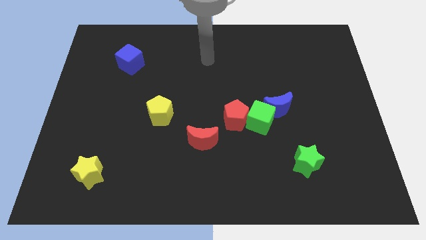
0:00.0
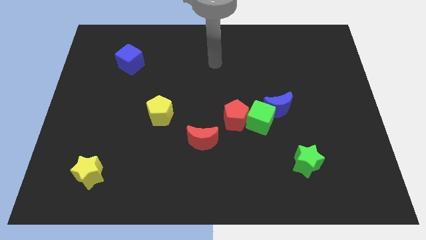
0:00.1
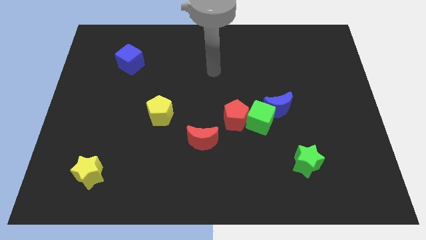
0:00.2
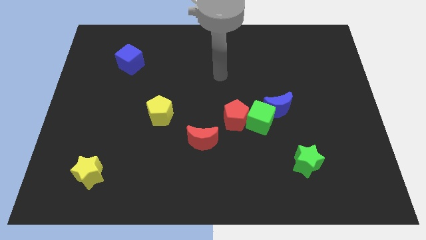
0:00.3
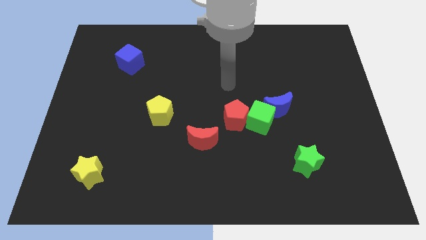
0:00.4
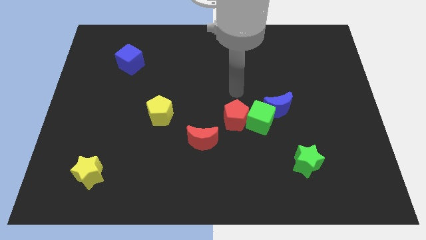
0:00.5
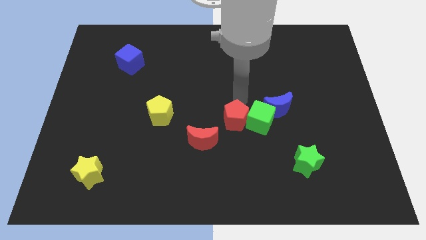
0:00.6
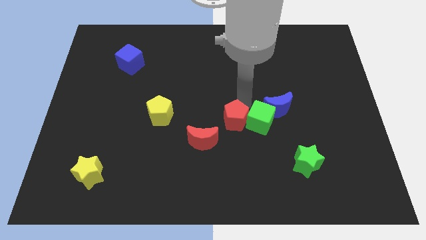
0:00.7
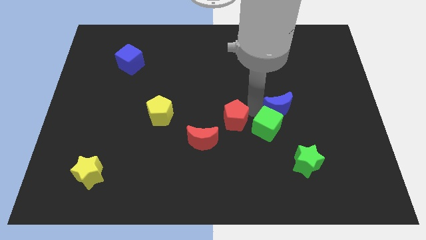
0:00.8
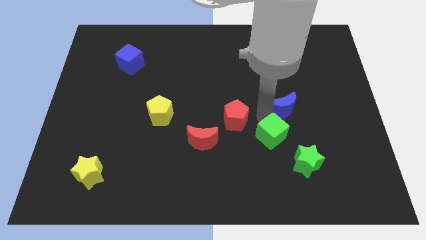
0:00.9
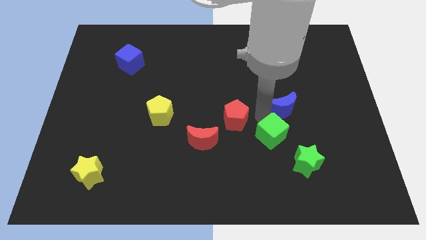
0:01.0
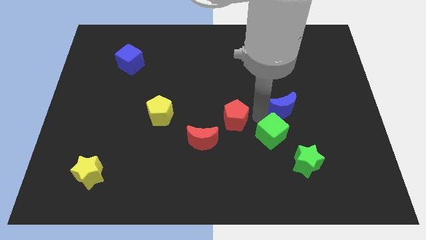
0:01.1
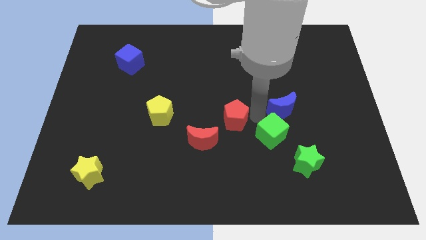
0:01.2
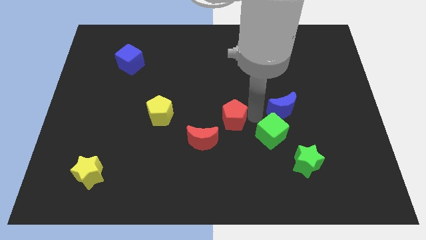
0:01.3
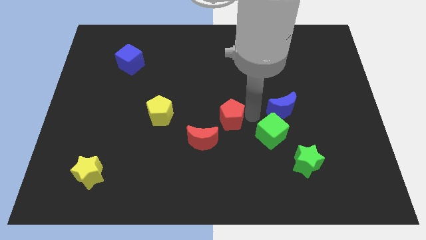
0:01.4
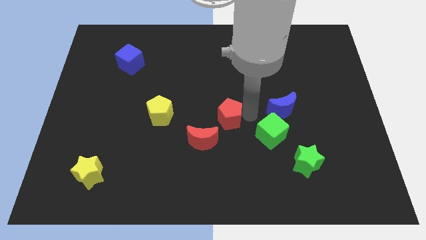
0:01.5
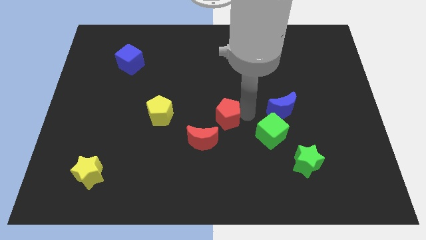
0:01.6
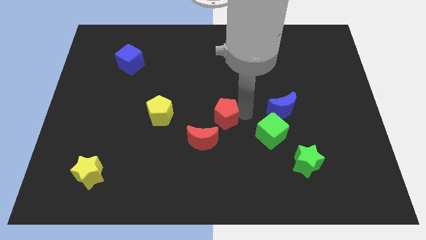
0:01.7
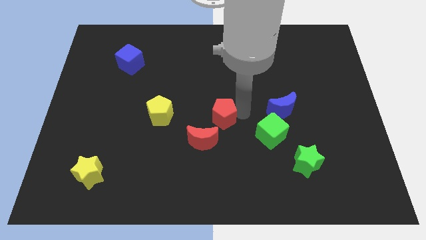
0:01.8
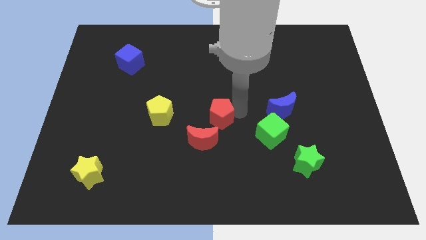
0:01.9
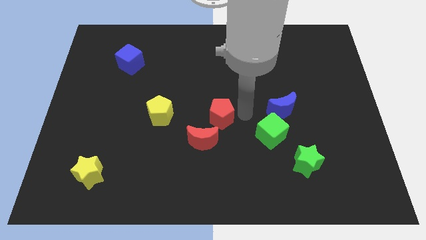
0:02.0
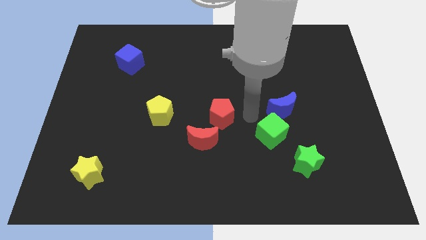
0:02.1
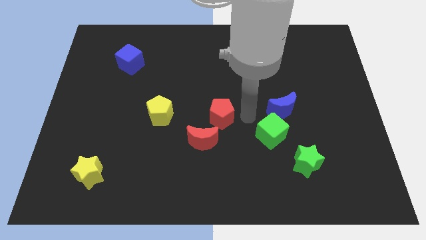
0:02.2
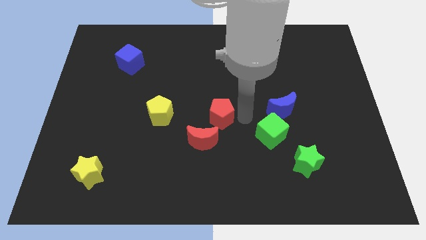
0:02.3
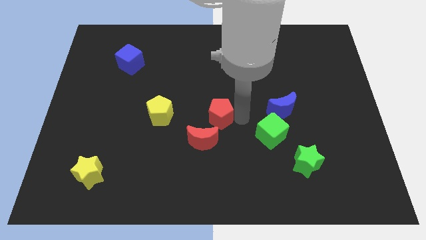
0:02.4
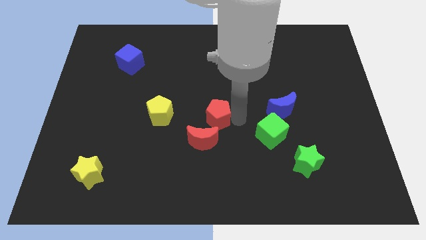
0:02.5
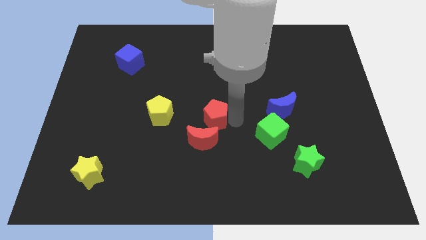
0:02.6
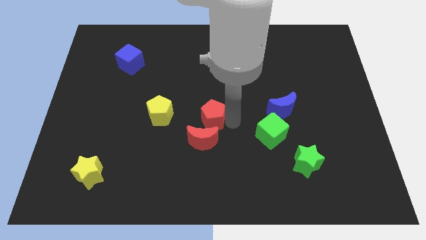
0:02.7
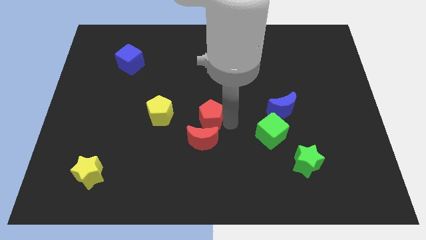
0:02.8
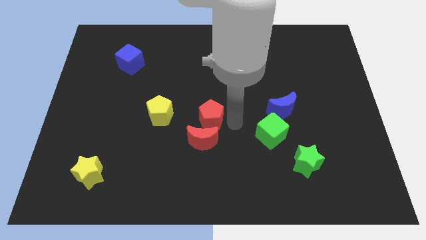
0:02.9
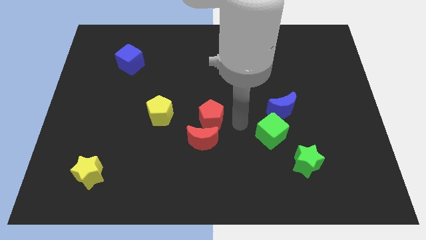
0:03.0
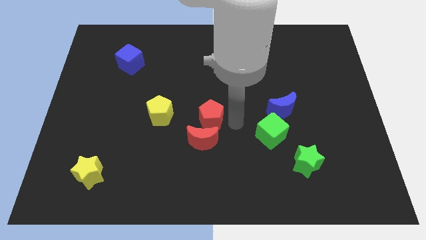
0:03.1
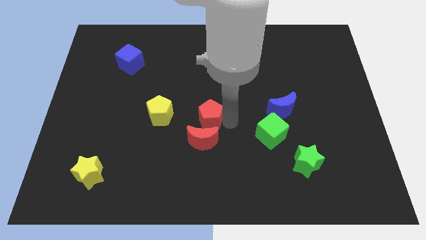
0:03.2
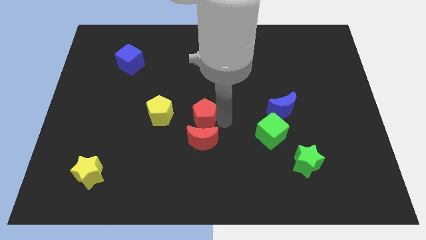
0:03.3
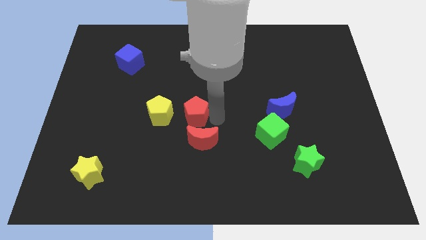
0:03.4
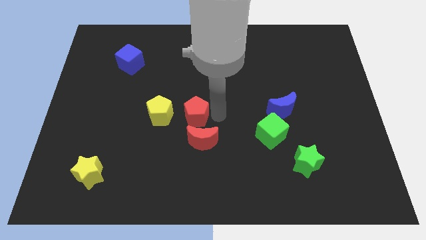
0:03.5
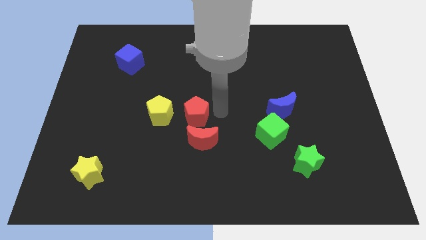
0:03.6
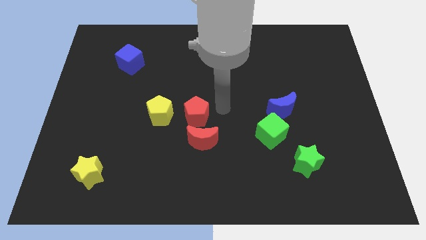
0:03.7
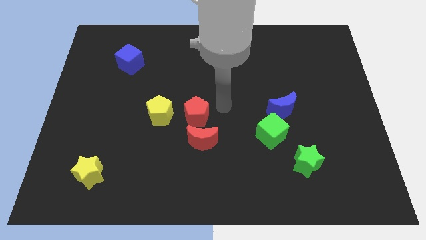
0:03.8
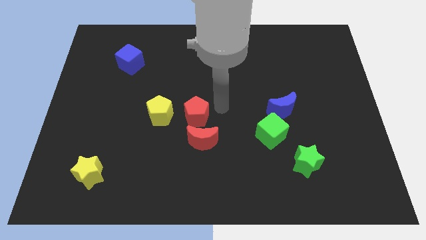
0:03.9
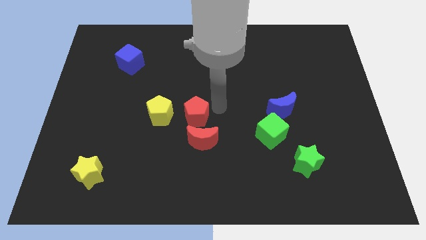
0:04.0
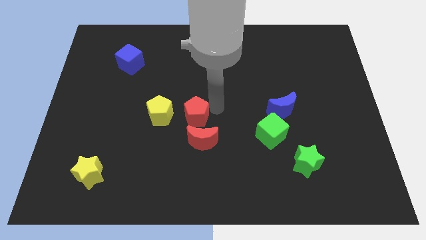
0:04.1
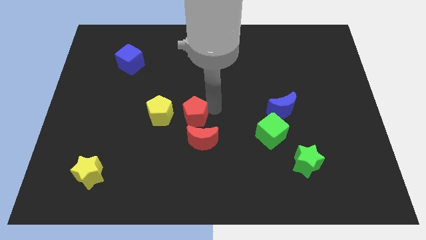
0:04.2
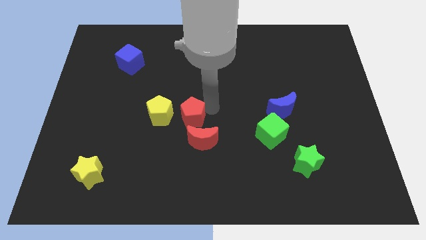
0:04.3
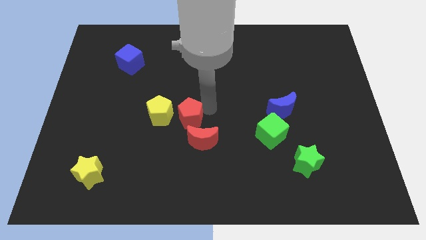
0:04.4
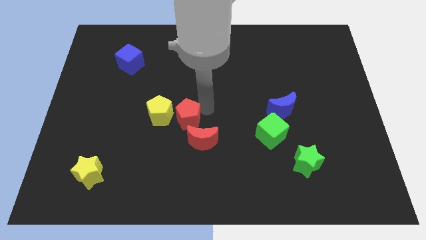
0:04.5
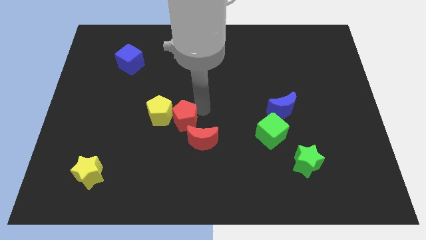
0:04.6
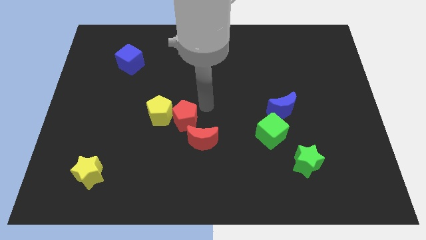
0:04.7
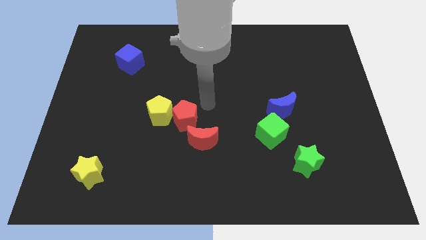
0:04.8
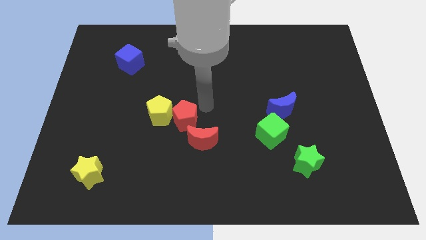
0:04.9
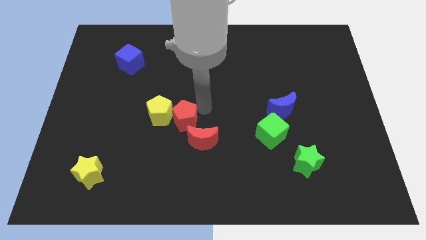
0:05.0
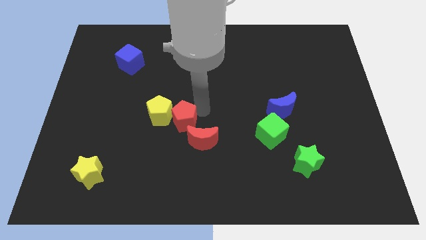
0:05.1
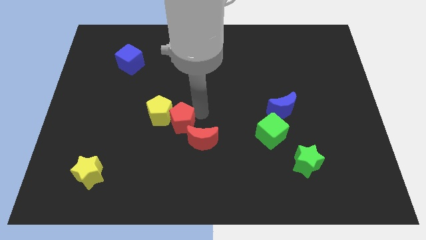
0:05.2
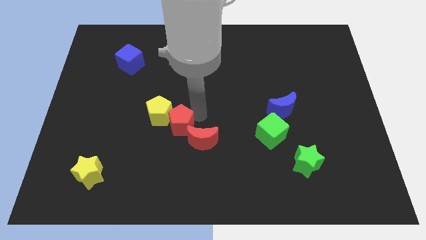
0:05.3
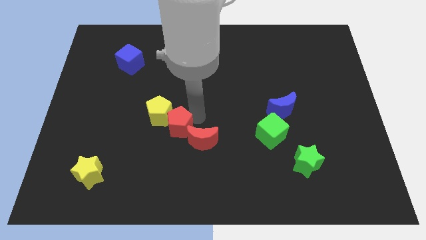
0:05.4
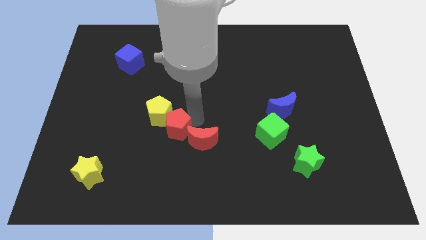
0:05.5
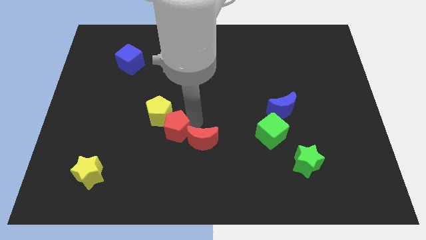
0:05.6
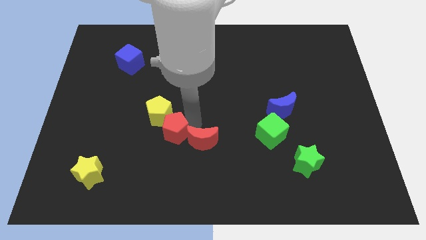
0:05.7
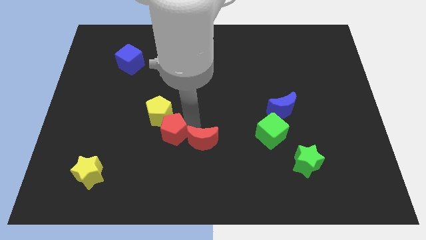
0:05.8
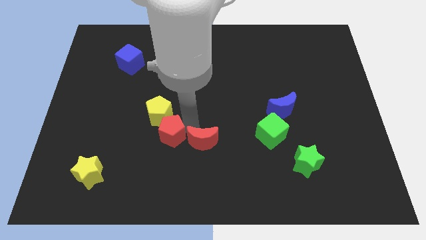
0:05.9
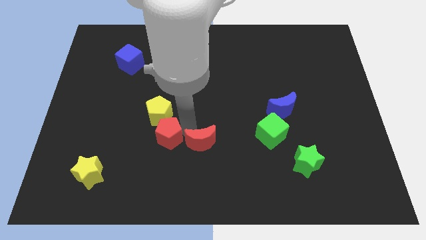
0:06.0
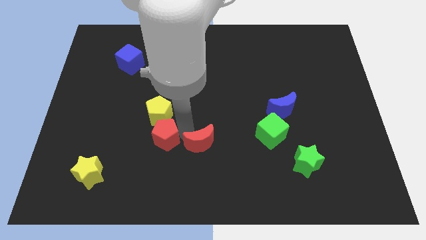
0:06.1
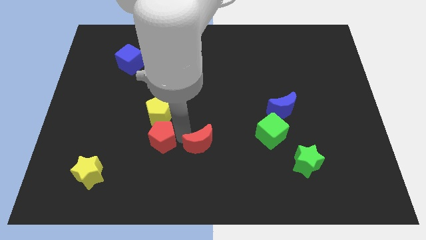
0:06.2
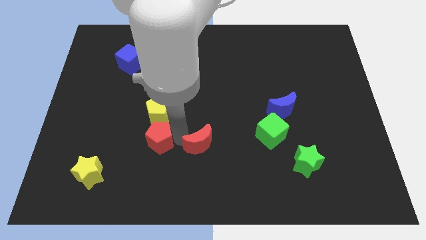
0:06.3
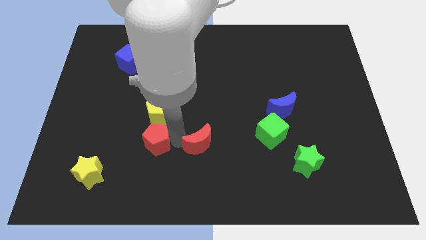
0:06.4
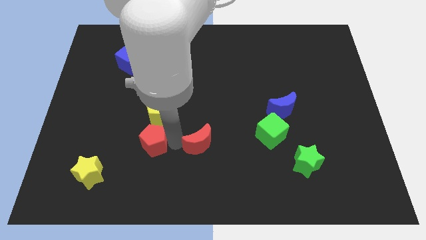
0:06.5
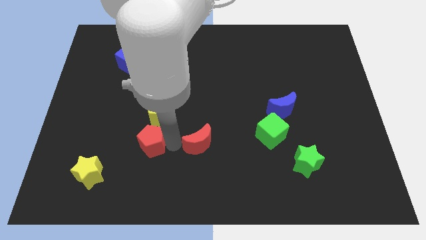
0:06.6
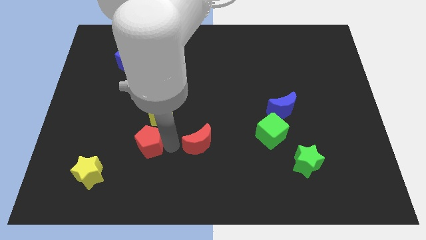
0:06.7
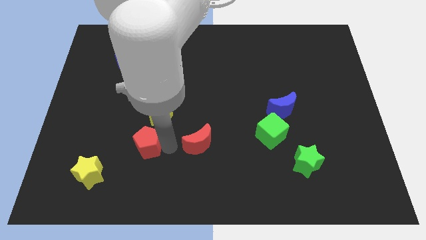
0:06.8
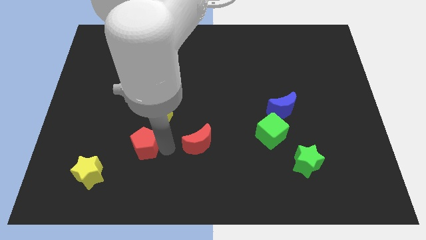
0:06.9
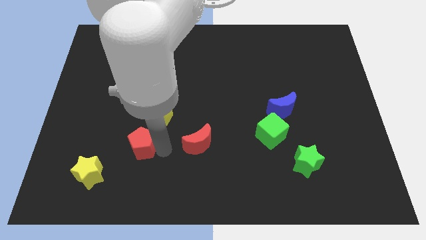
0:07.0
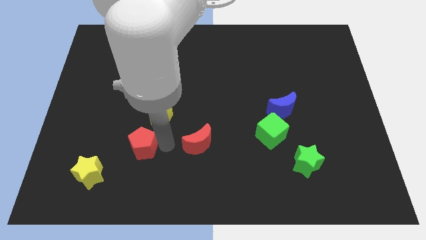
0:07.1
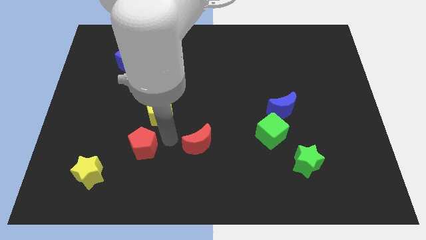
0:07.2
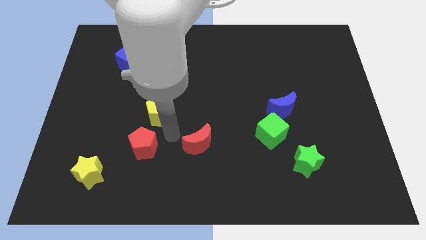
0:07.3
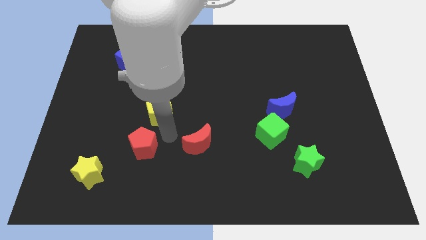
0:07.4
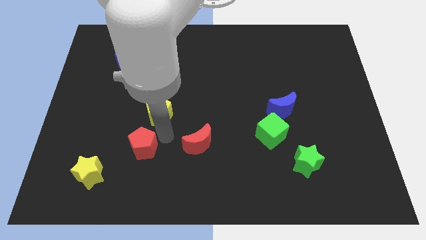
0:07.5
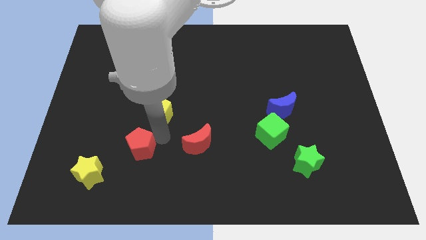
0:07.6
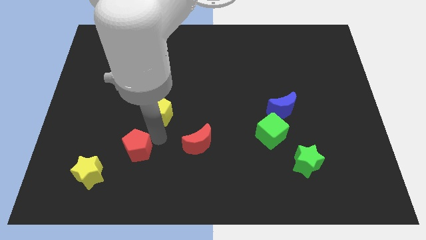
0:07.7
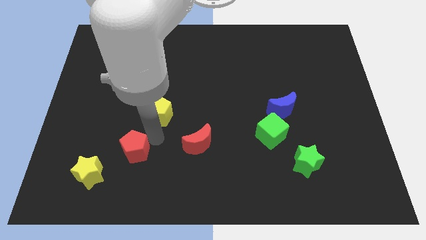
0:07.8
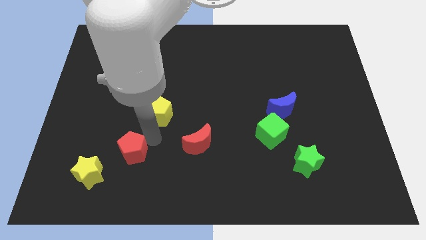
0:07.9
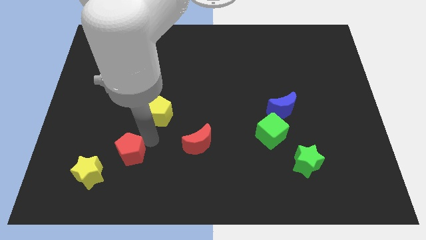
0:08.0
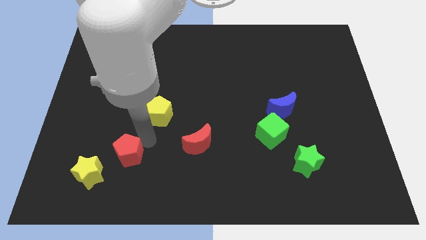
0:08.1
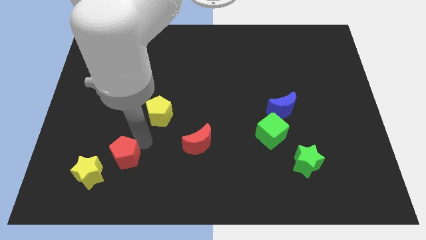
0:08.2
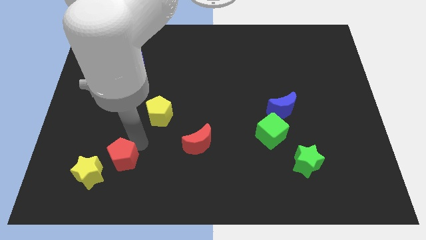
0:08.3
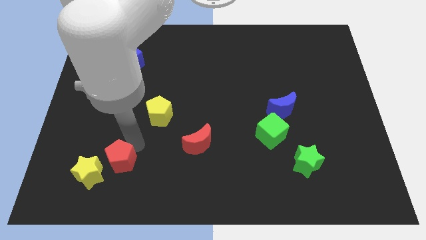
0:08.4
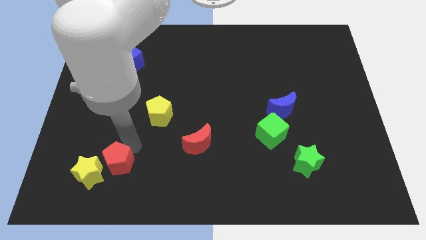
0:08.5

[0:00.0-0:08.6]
push the red pentagon close to the yellow star
